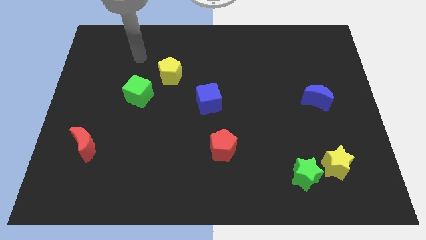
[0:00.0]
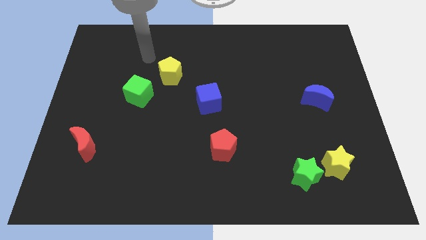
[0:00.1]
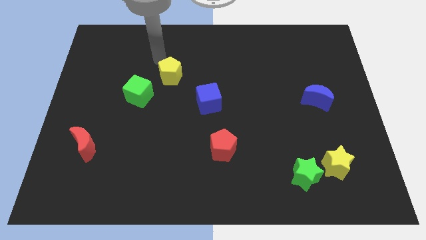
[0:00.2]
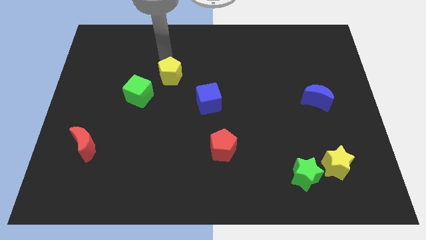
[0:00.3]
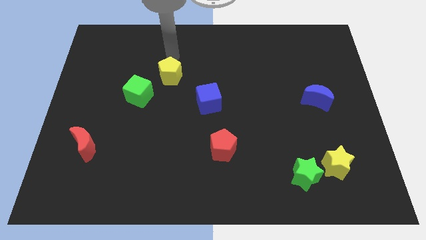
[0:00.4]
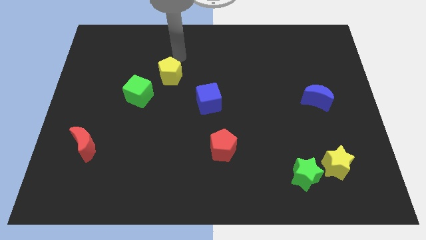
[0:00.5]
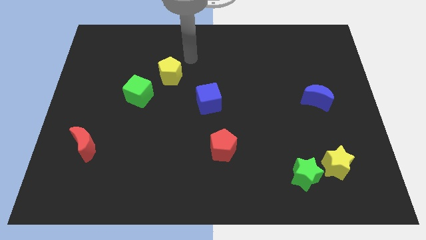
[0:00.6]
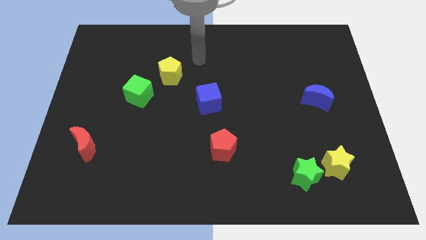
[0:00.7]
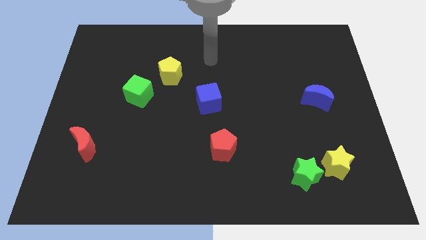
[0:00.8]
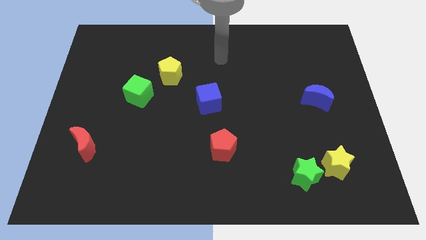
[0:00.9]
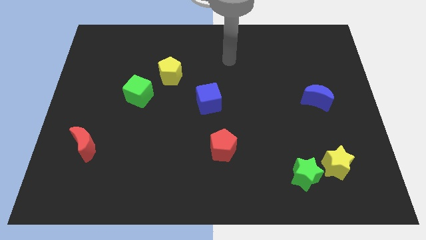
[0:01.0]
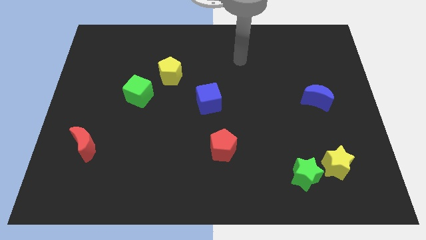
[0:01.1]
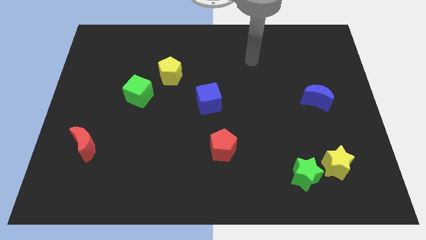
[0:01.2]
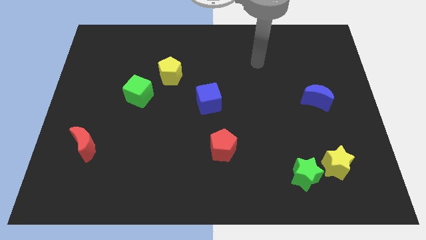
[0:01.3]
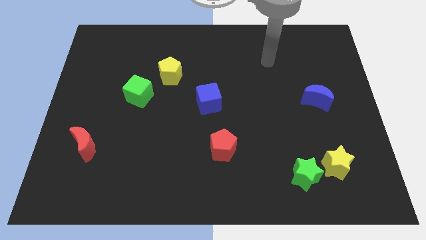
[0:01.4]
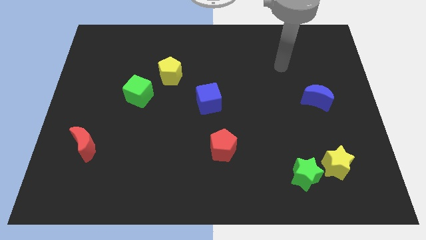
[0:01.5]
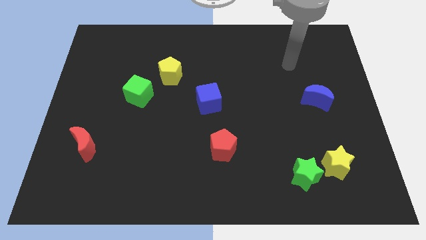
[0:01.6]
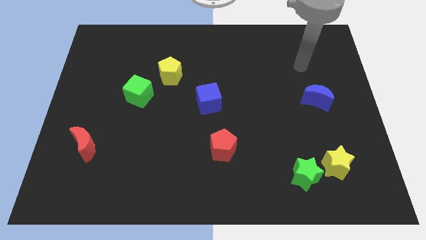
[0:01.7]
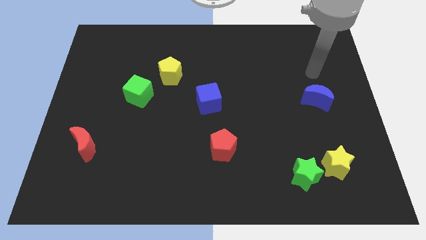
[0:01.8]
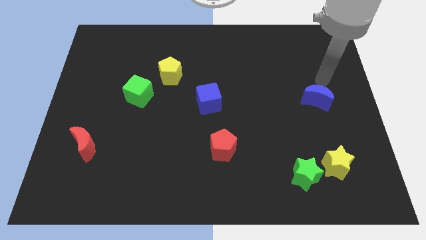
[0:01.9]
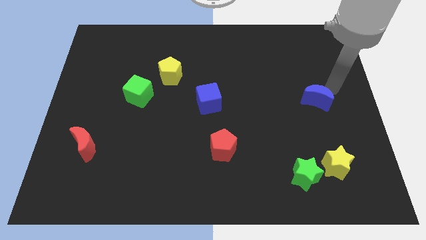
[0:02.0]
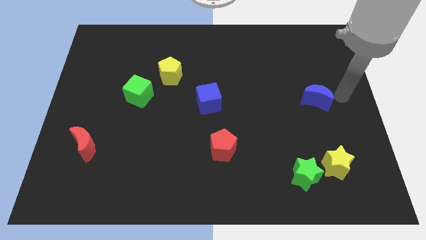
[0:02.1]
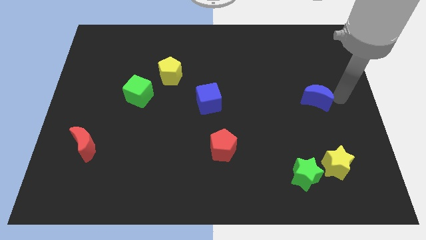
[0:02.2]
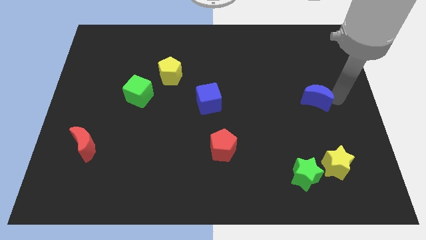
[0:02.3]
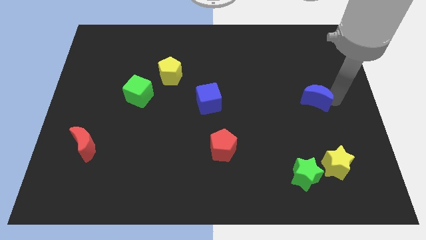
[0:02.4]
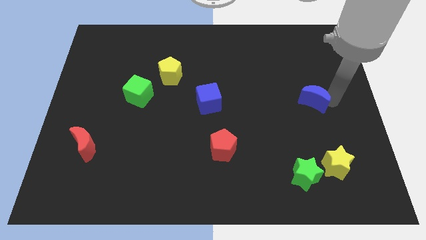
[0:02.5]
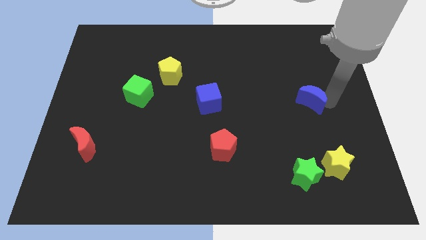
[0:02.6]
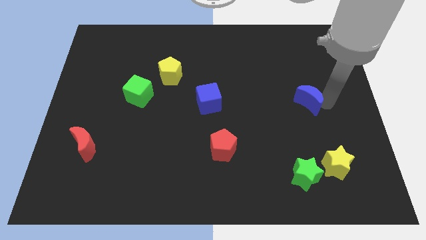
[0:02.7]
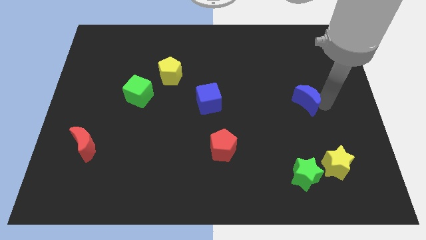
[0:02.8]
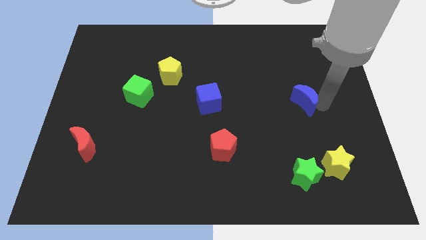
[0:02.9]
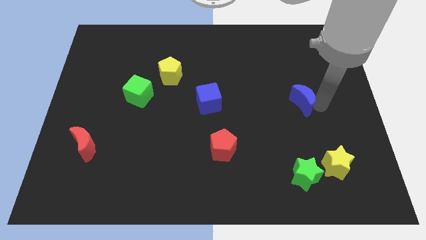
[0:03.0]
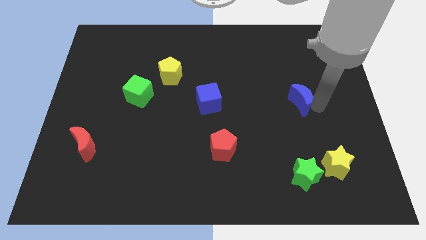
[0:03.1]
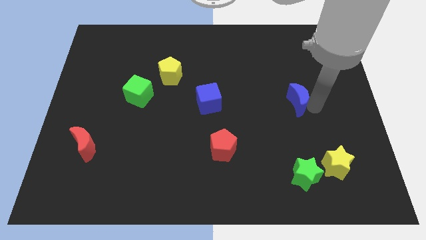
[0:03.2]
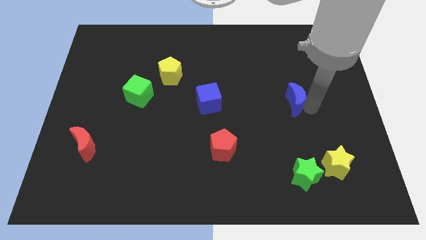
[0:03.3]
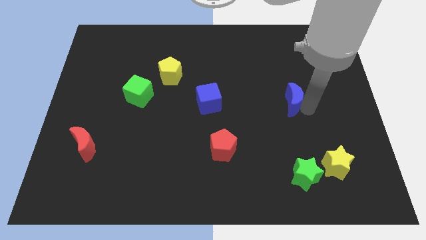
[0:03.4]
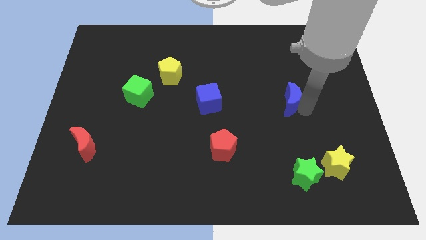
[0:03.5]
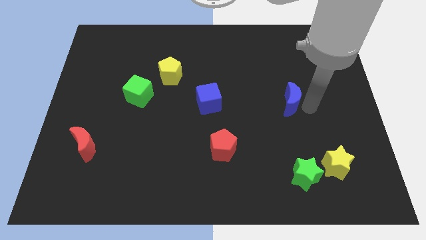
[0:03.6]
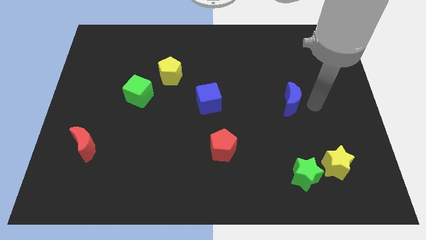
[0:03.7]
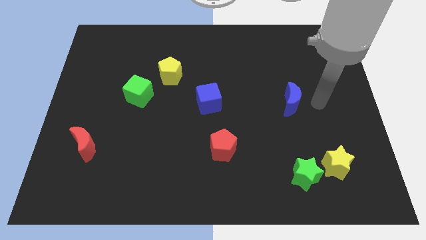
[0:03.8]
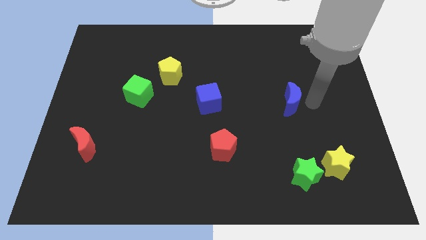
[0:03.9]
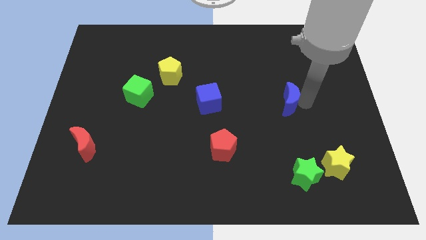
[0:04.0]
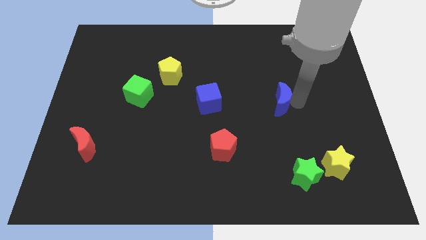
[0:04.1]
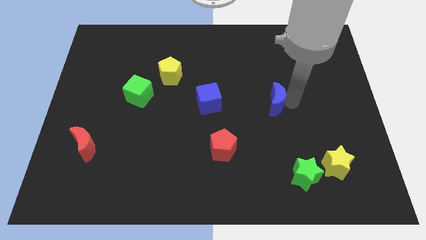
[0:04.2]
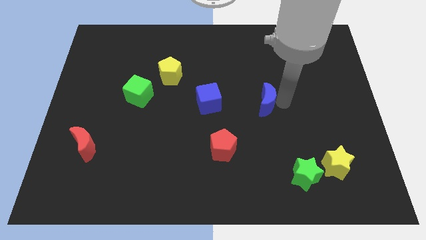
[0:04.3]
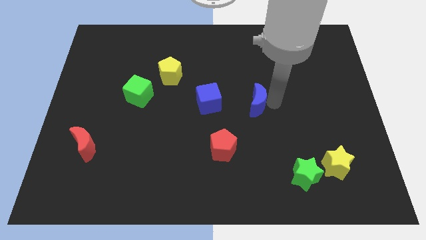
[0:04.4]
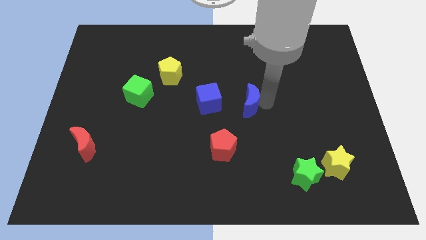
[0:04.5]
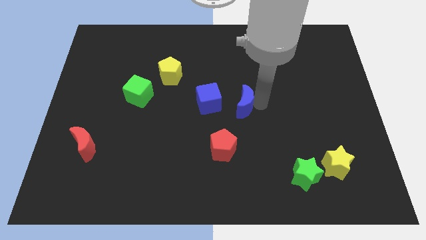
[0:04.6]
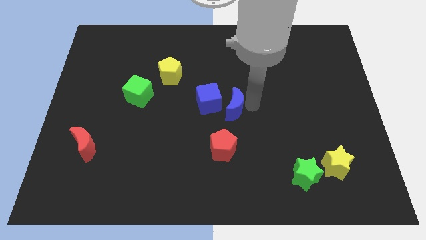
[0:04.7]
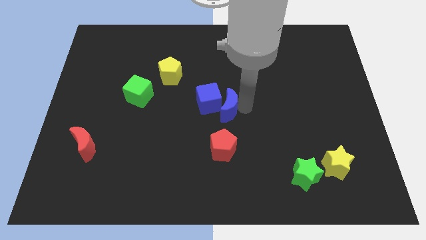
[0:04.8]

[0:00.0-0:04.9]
slide the blue moon towards the blue cube

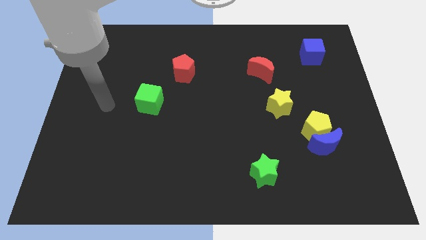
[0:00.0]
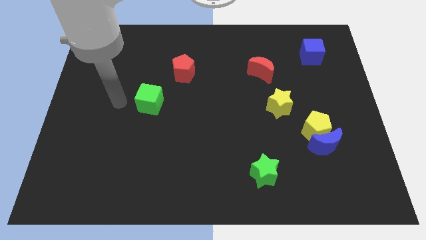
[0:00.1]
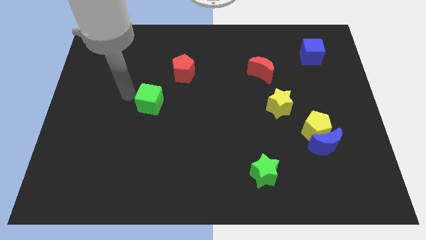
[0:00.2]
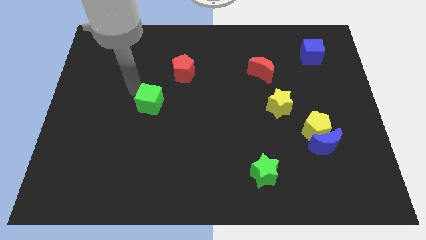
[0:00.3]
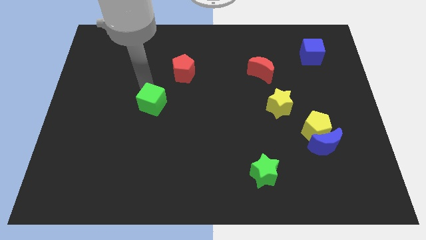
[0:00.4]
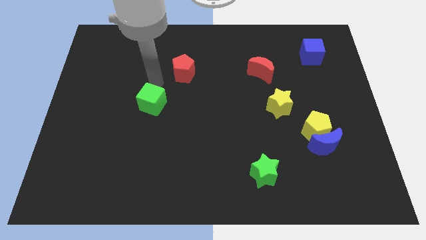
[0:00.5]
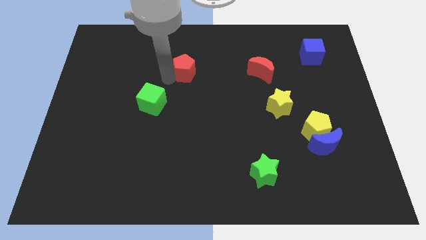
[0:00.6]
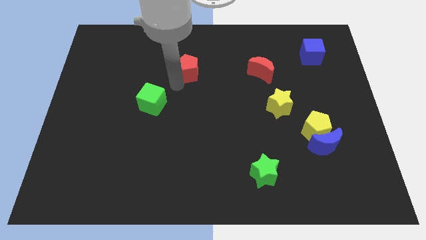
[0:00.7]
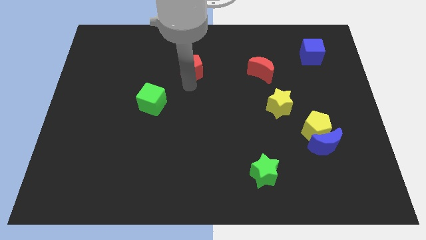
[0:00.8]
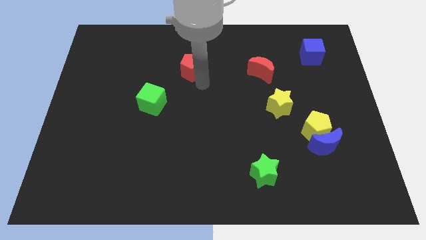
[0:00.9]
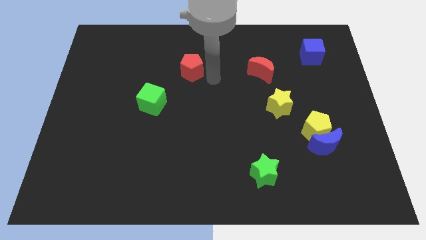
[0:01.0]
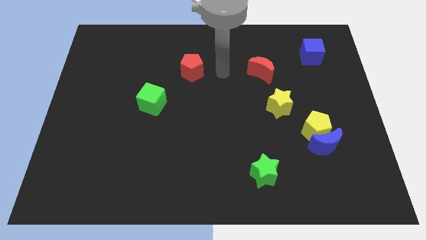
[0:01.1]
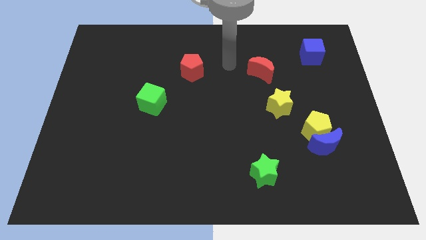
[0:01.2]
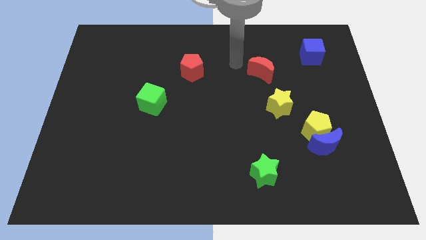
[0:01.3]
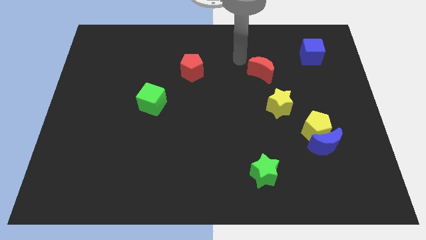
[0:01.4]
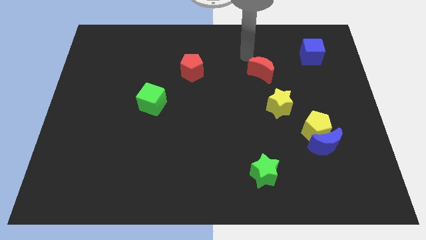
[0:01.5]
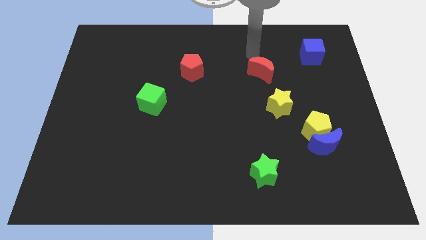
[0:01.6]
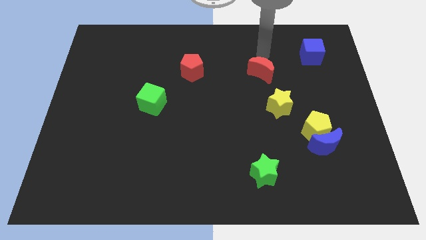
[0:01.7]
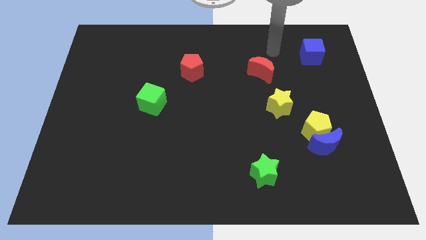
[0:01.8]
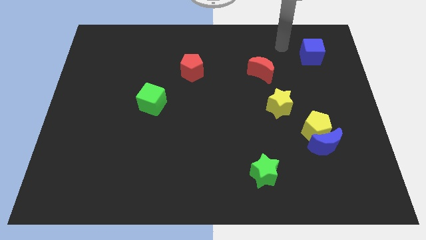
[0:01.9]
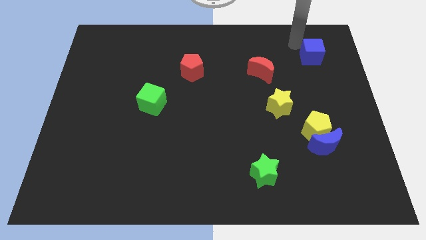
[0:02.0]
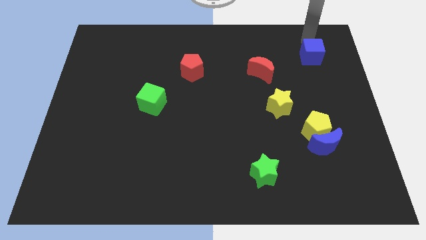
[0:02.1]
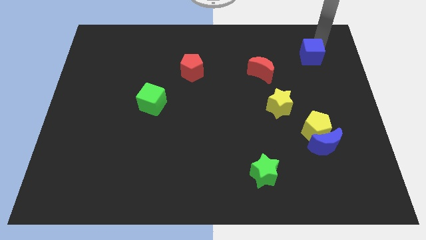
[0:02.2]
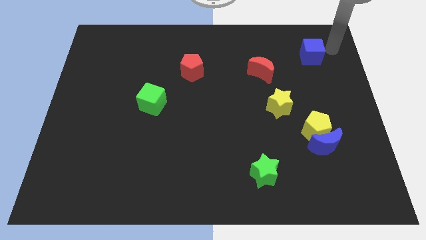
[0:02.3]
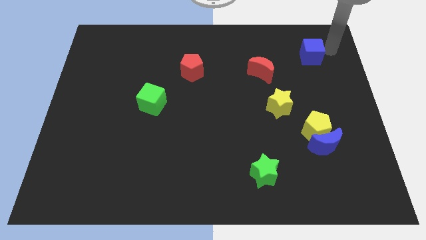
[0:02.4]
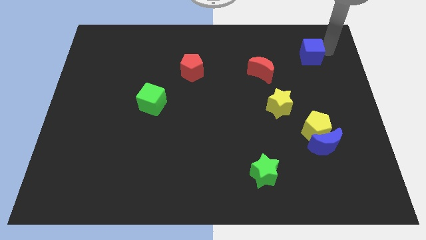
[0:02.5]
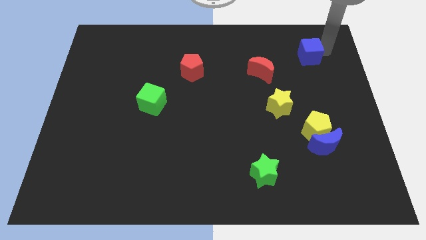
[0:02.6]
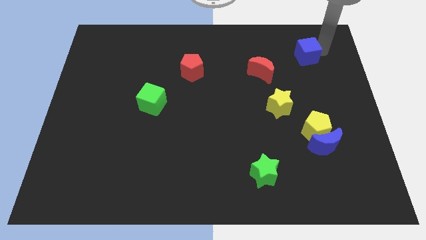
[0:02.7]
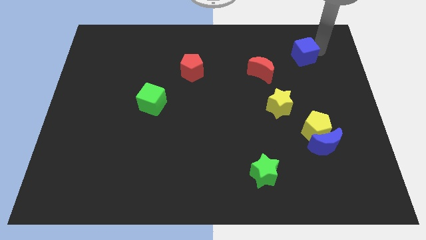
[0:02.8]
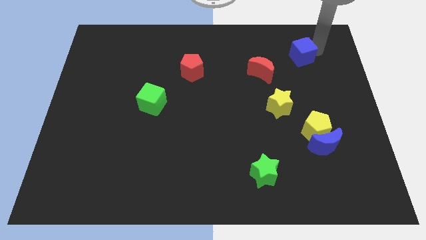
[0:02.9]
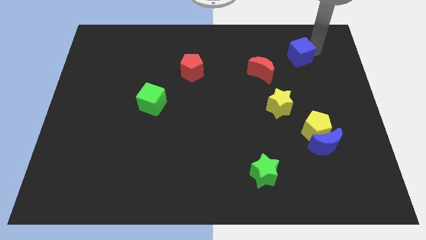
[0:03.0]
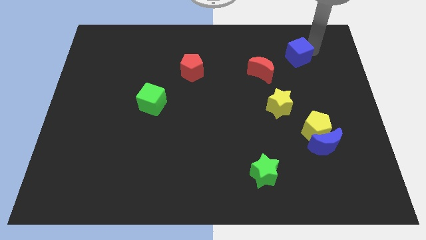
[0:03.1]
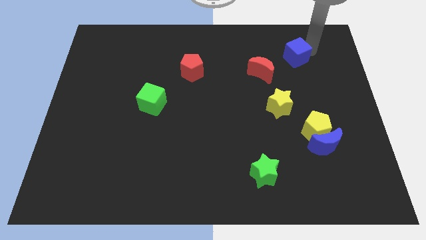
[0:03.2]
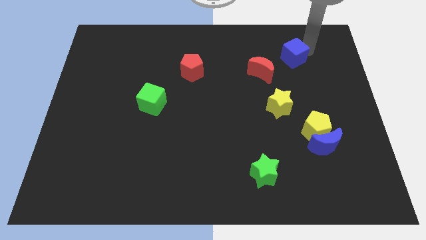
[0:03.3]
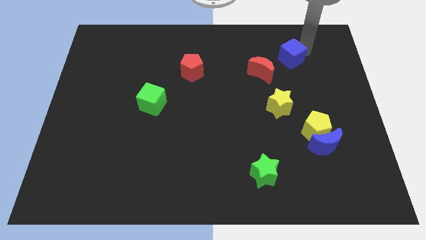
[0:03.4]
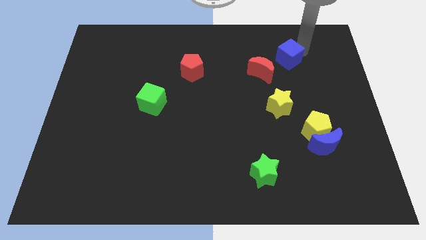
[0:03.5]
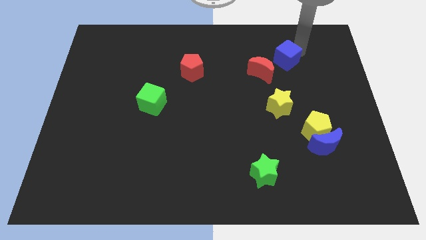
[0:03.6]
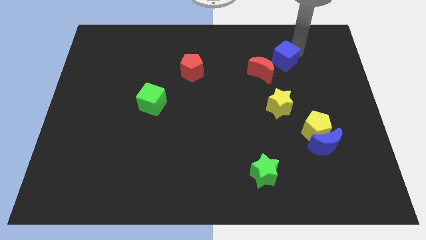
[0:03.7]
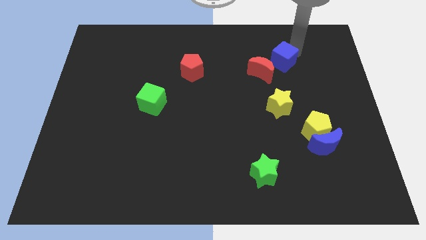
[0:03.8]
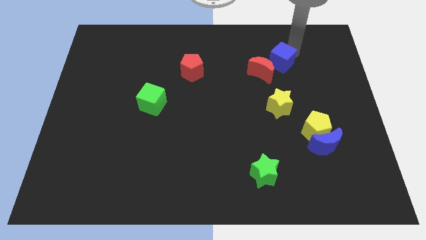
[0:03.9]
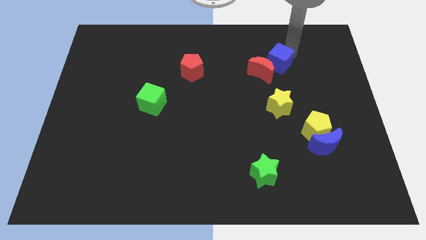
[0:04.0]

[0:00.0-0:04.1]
put the blue cube towards the red moon
